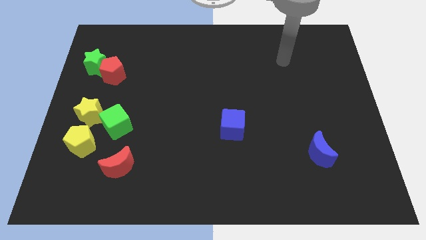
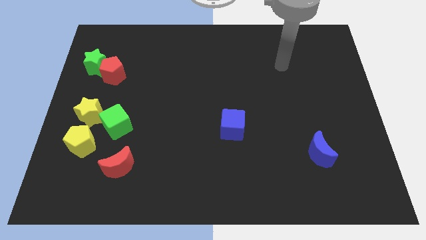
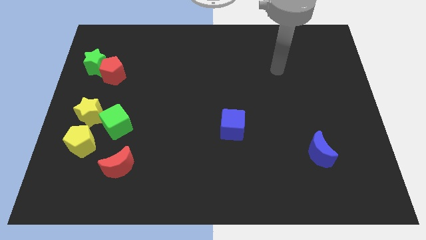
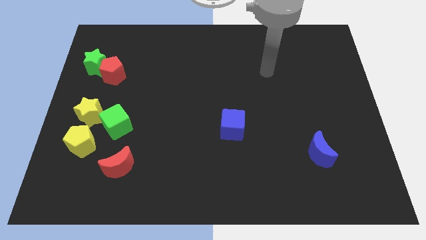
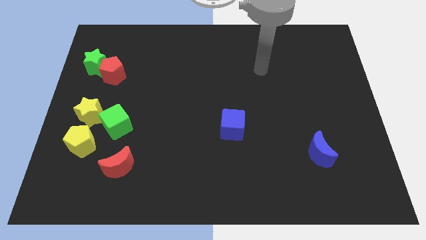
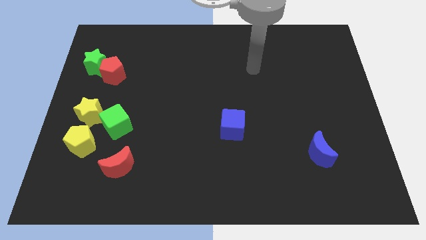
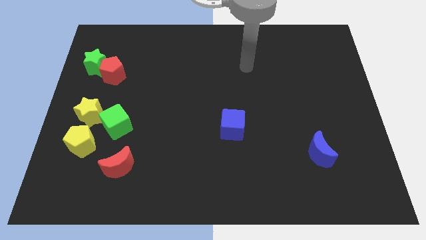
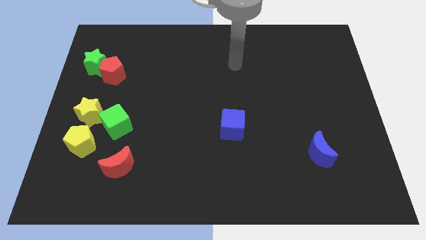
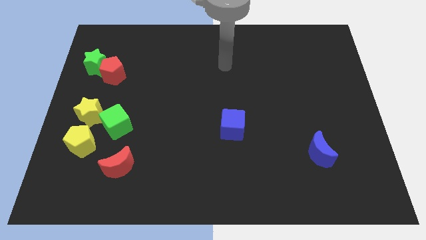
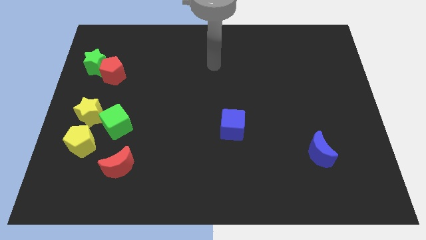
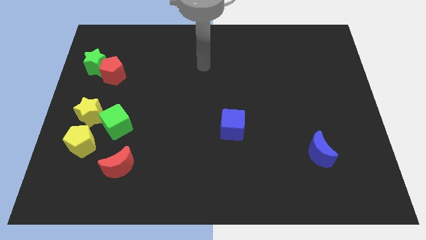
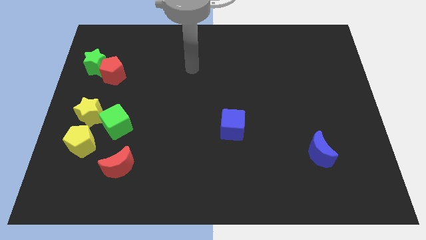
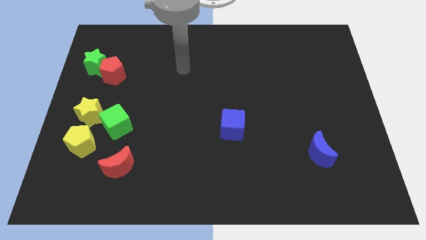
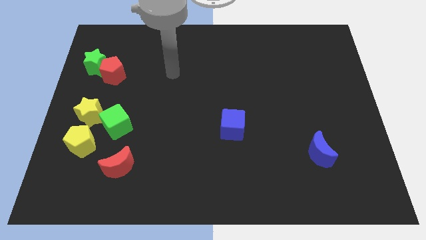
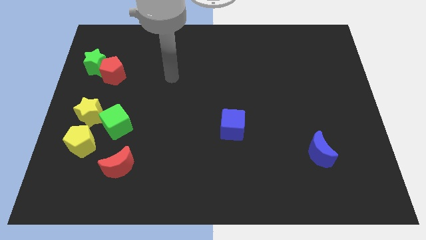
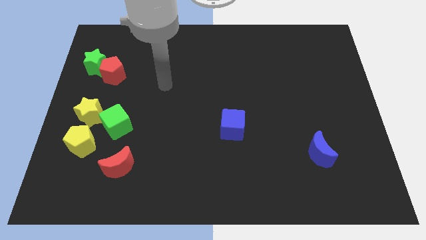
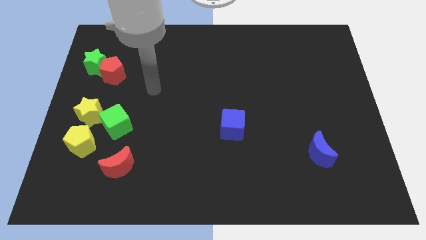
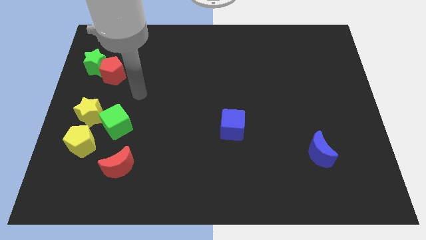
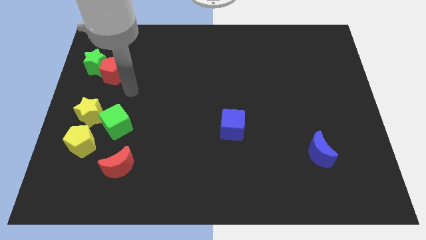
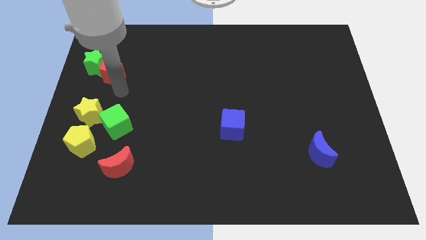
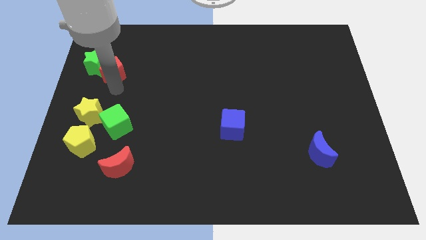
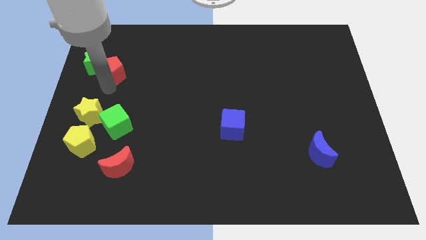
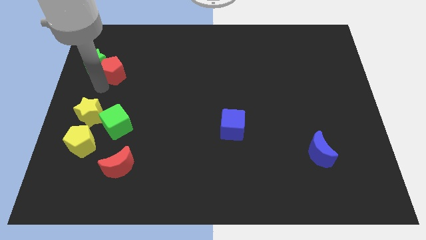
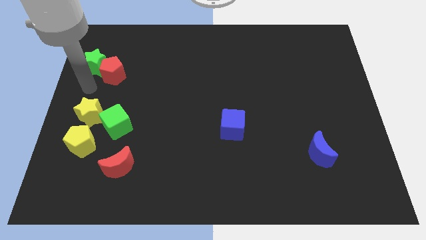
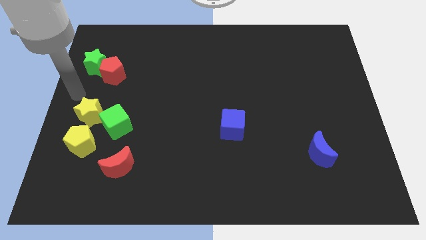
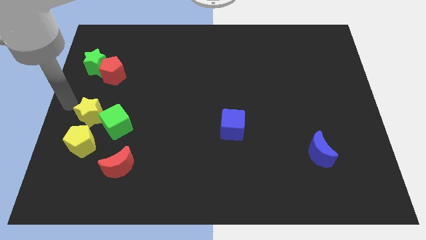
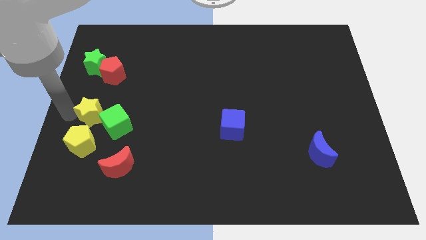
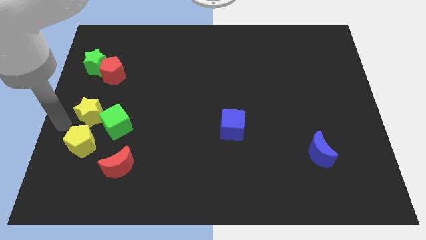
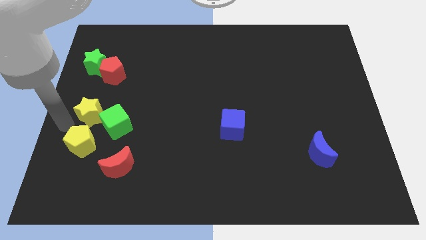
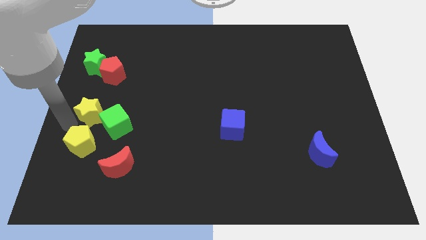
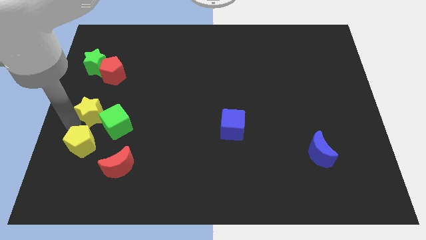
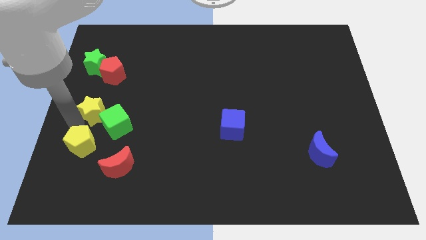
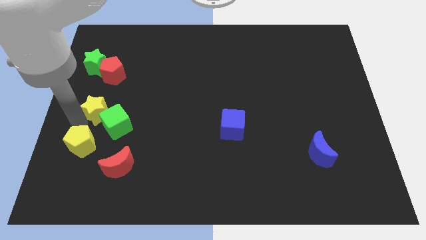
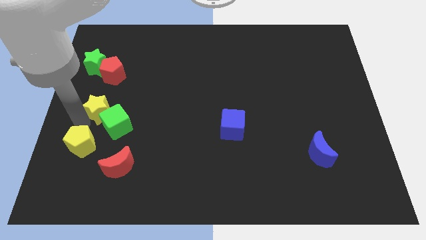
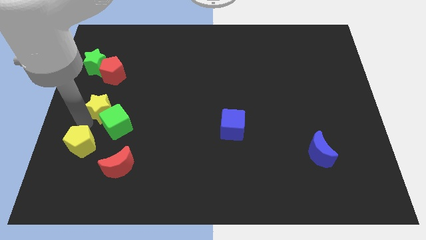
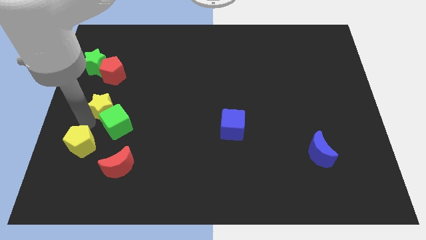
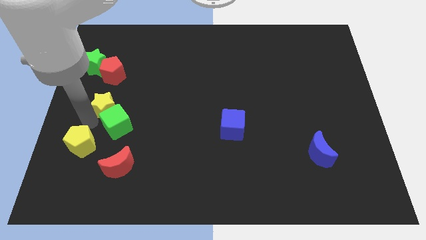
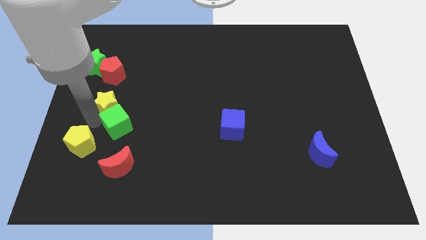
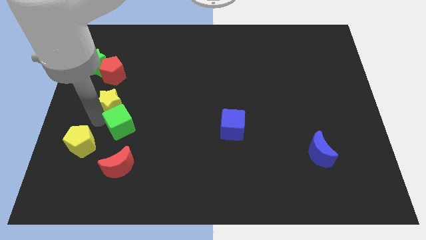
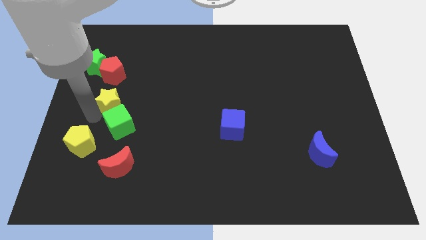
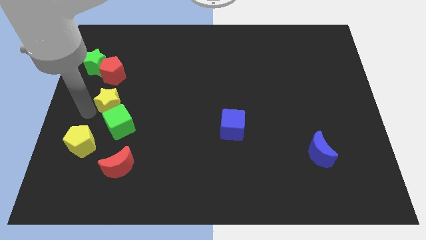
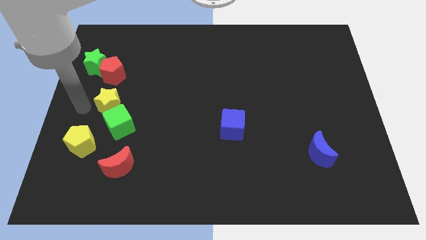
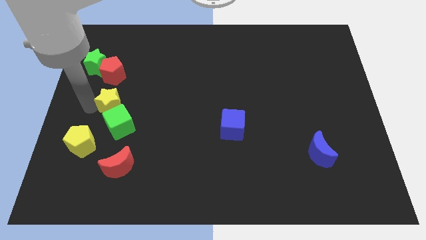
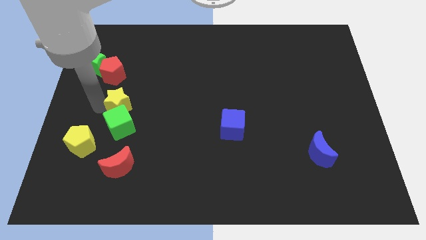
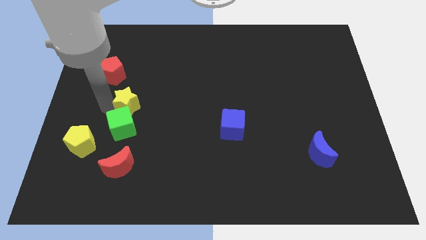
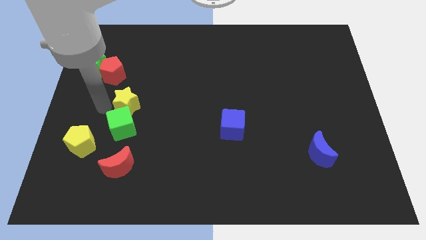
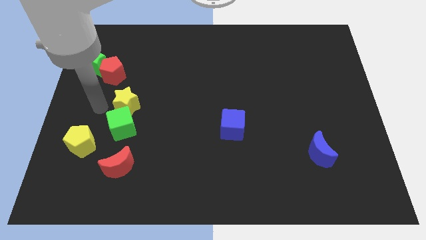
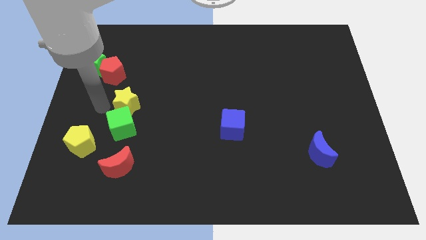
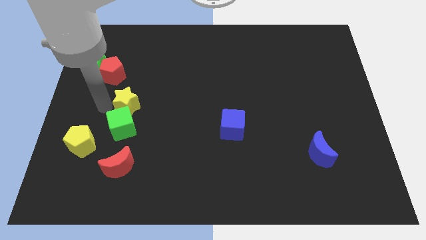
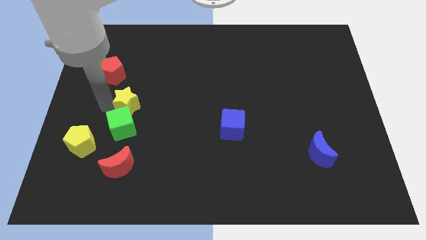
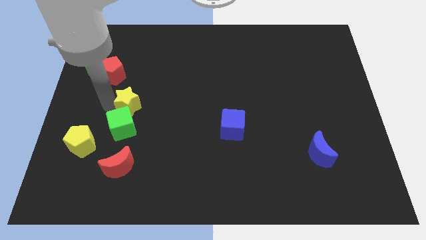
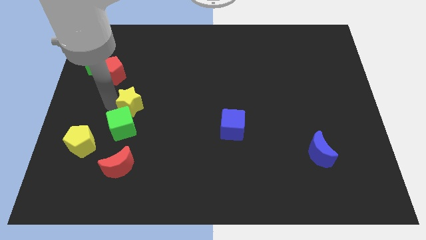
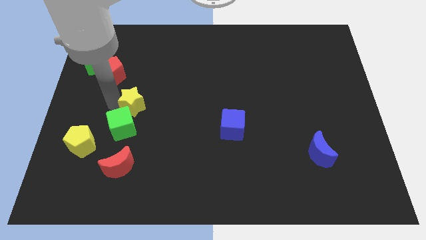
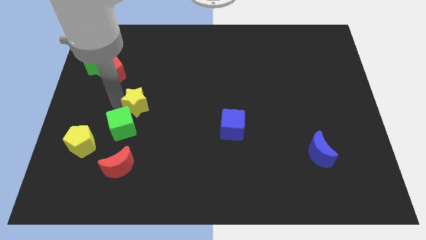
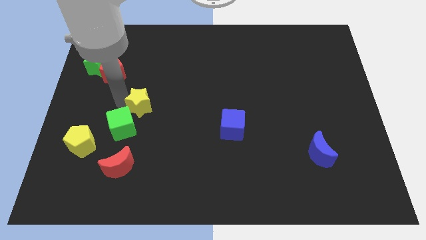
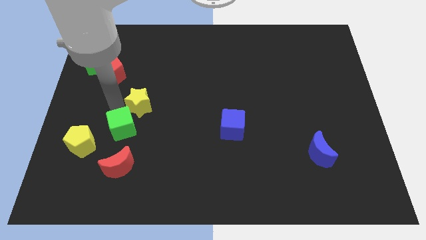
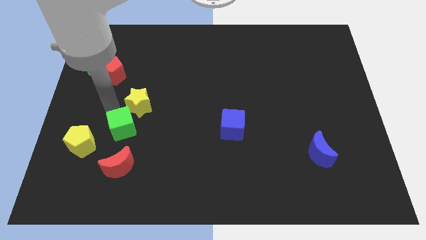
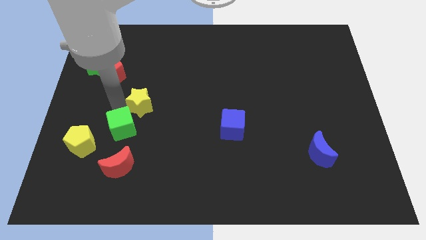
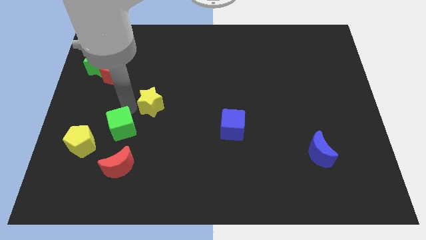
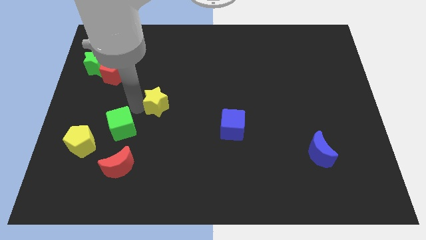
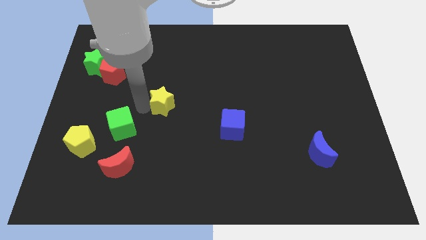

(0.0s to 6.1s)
put the yellow star to the middle of the board

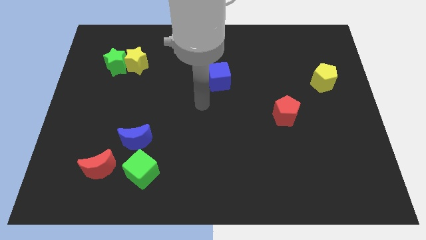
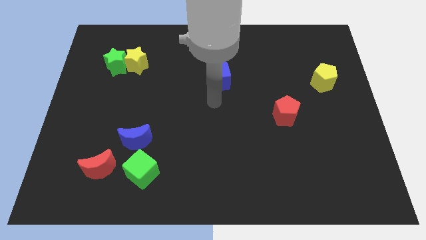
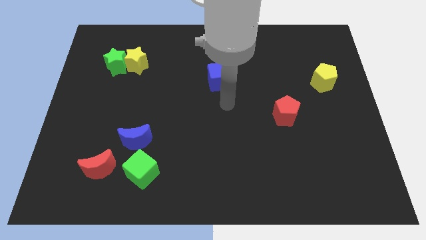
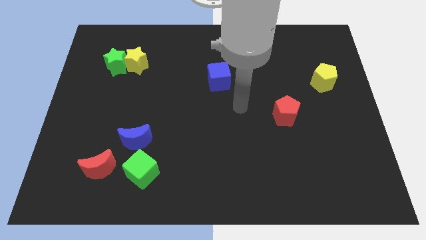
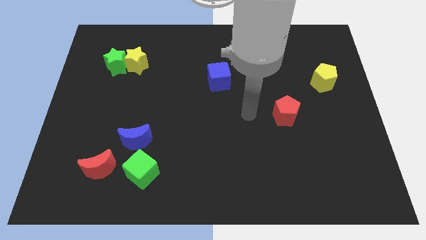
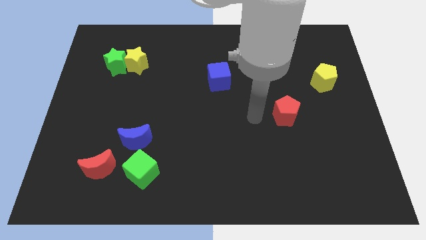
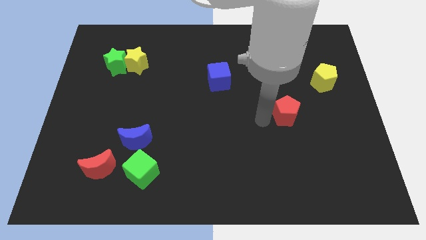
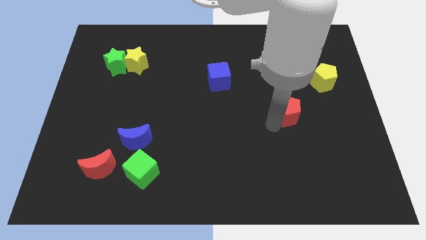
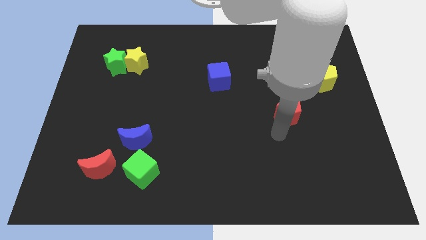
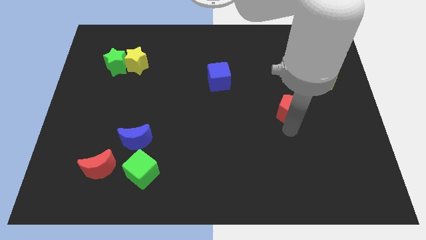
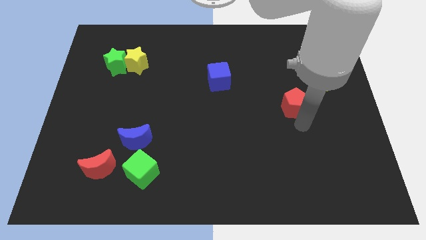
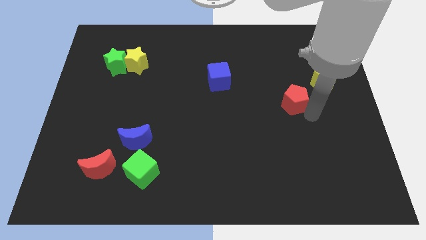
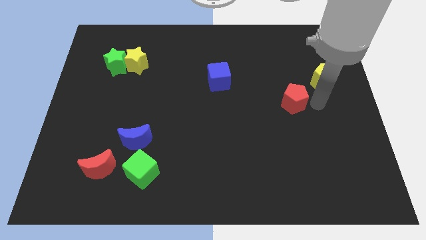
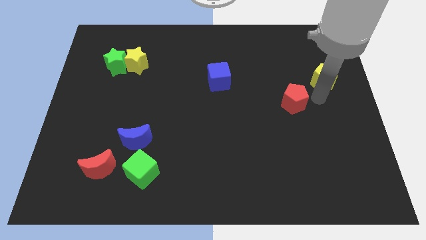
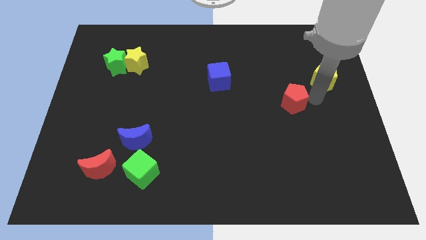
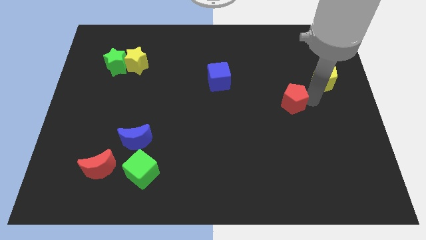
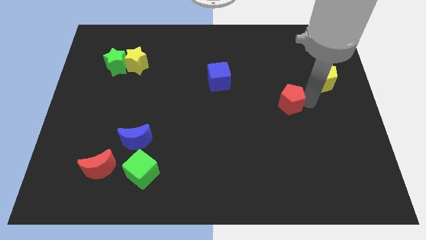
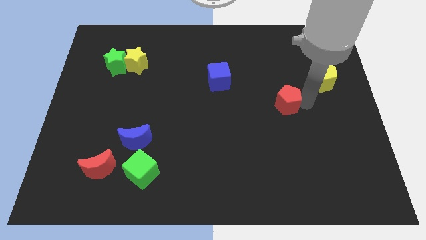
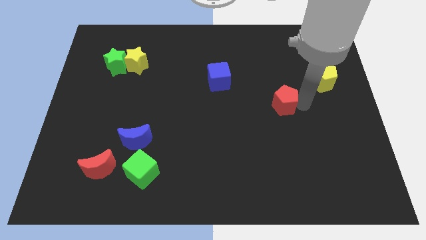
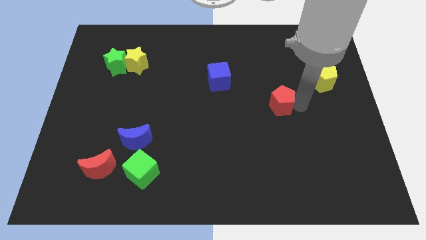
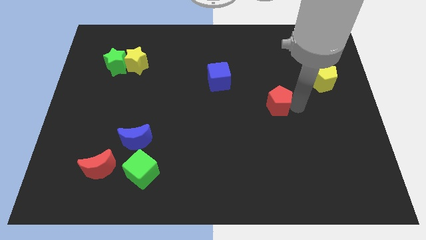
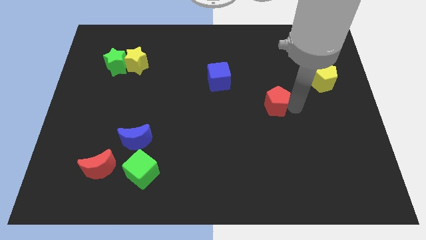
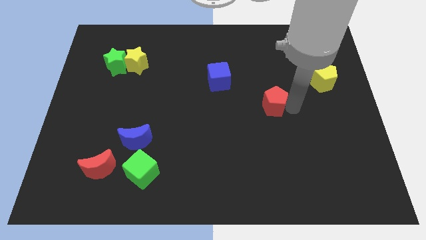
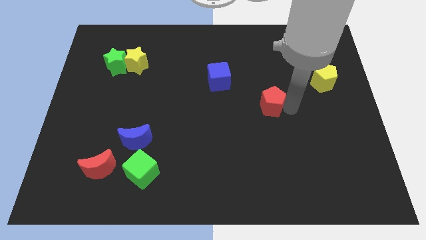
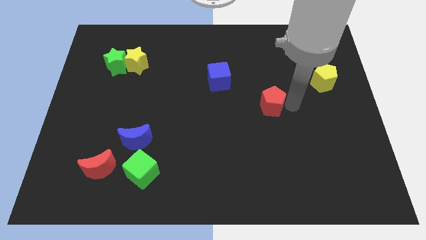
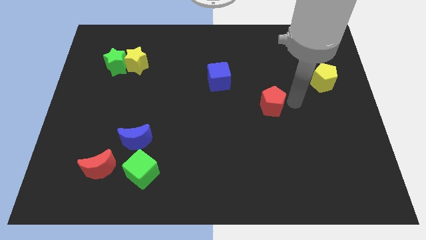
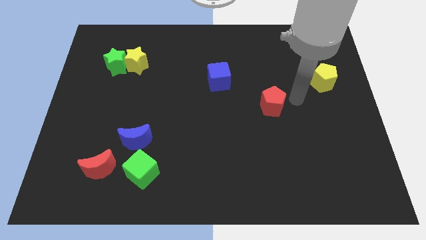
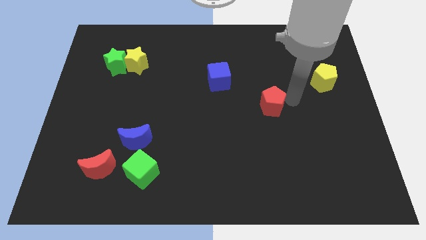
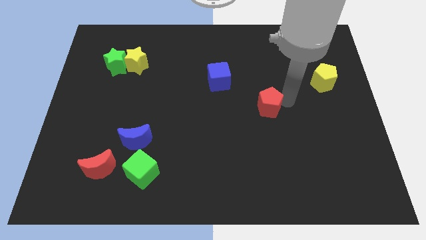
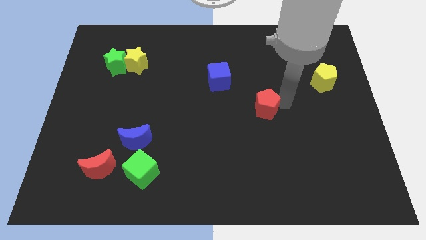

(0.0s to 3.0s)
put the red pentagon to the center
